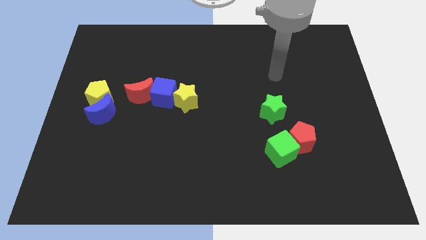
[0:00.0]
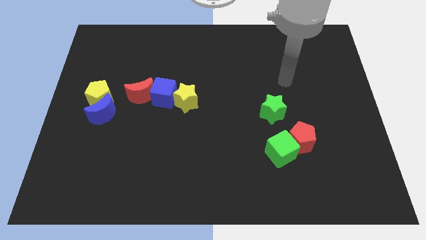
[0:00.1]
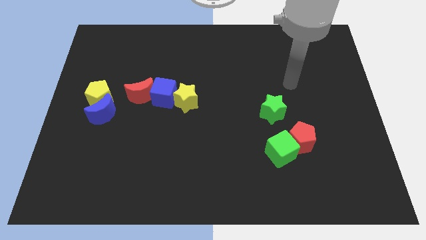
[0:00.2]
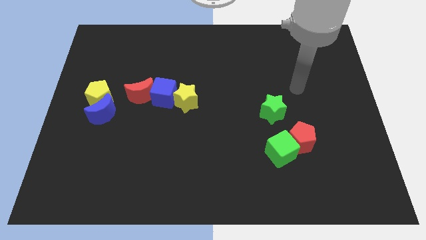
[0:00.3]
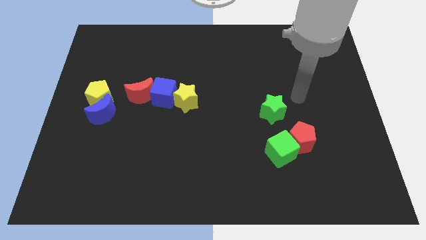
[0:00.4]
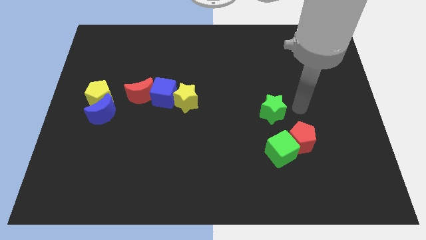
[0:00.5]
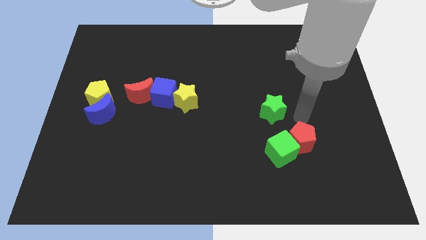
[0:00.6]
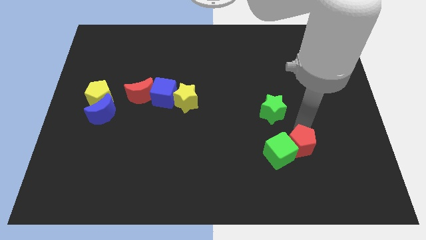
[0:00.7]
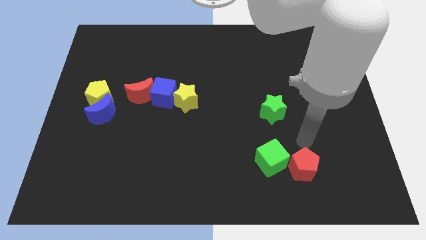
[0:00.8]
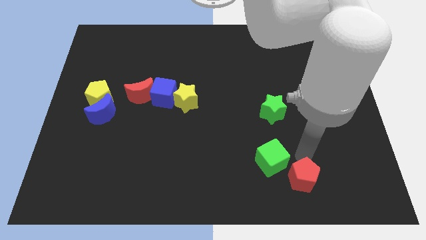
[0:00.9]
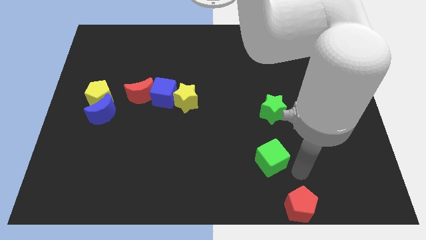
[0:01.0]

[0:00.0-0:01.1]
move the green cube away from the red pentagon

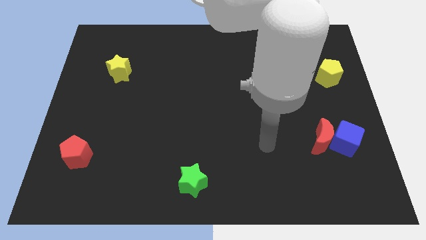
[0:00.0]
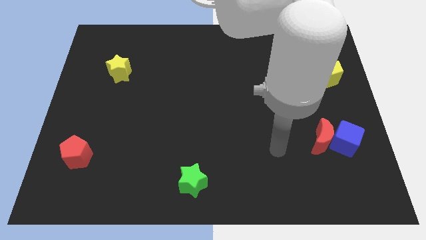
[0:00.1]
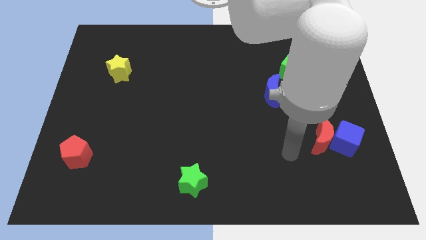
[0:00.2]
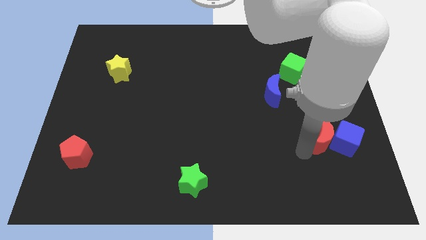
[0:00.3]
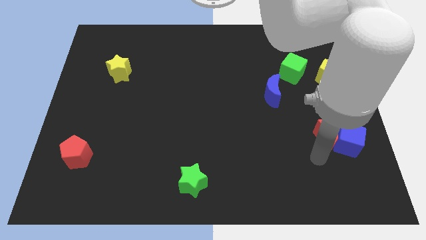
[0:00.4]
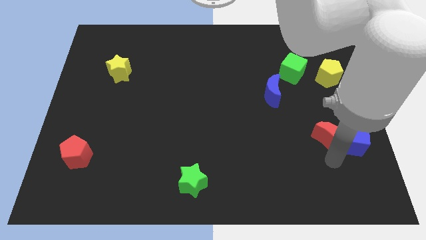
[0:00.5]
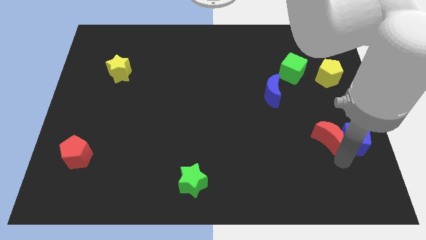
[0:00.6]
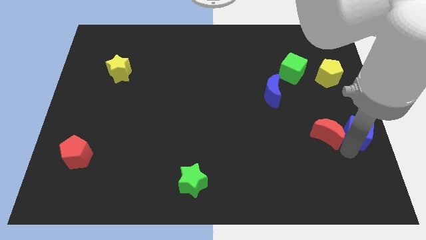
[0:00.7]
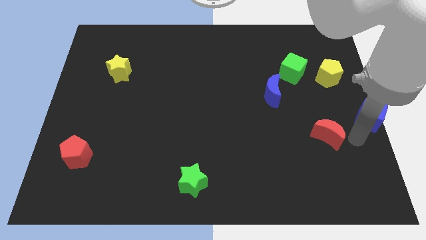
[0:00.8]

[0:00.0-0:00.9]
pull the red moon apart from the blue cube

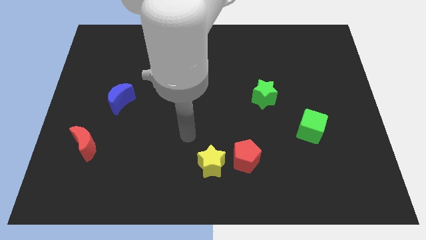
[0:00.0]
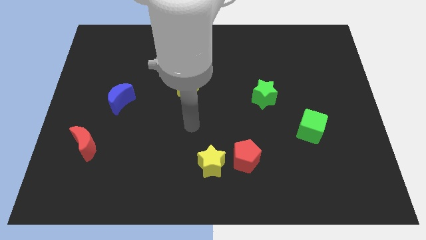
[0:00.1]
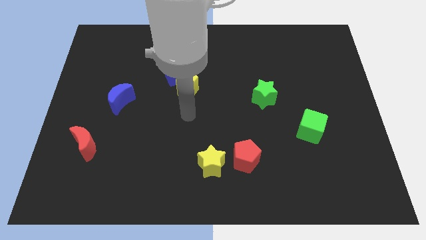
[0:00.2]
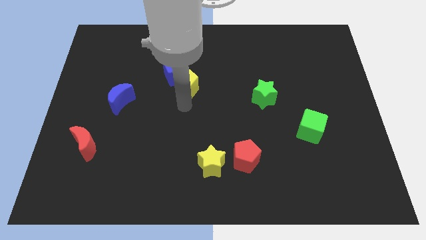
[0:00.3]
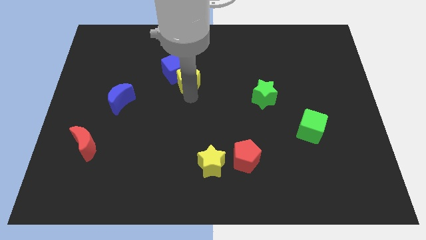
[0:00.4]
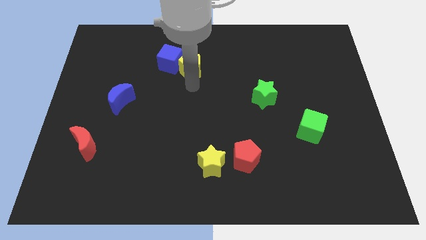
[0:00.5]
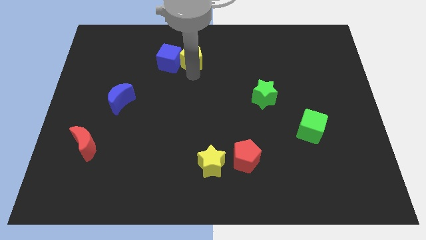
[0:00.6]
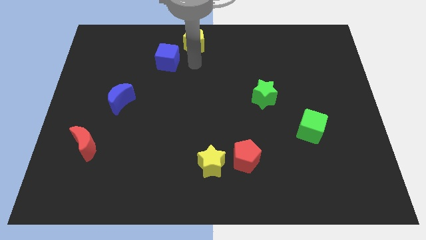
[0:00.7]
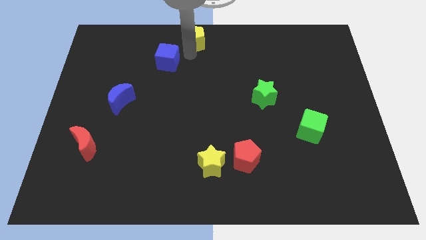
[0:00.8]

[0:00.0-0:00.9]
move the blue cube away from the yellow pentagon

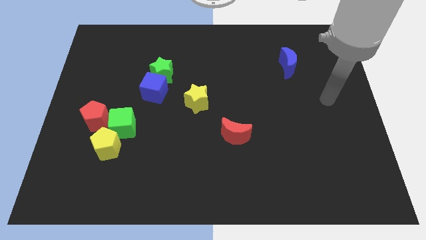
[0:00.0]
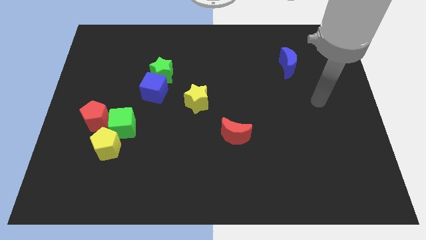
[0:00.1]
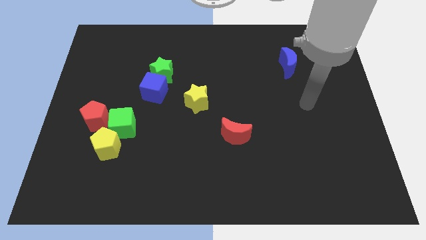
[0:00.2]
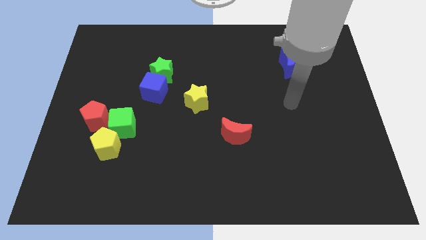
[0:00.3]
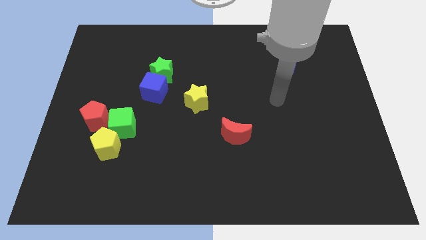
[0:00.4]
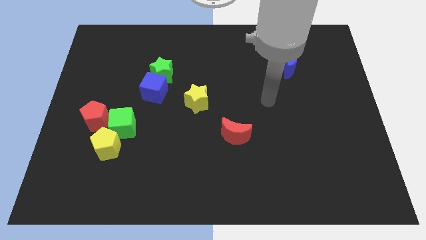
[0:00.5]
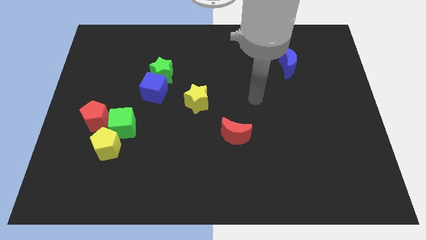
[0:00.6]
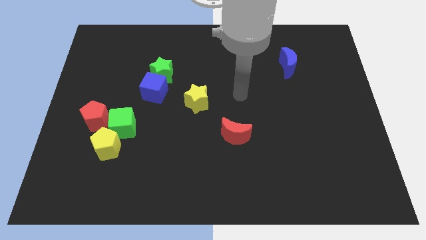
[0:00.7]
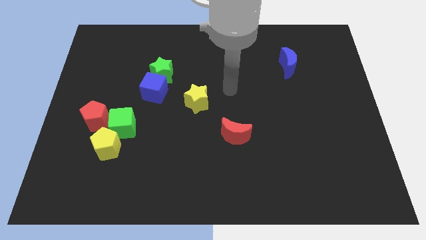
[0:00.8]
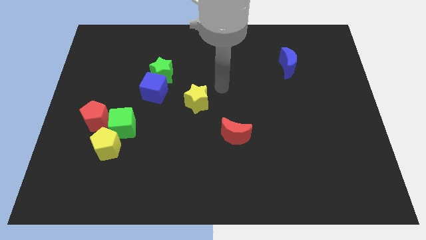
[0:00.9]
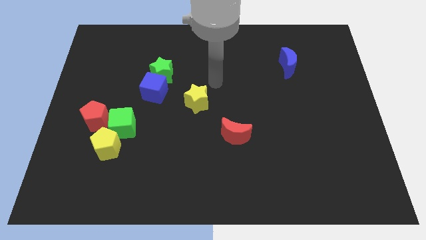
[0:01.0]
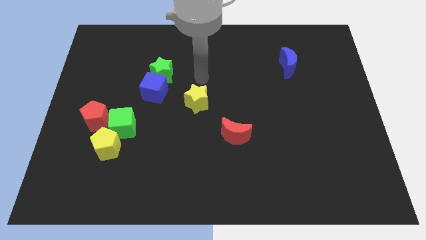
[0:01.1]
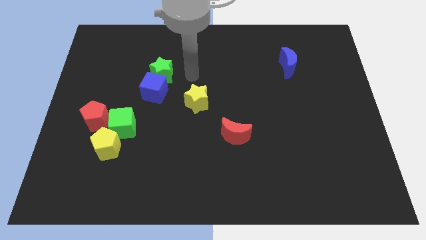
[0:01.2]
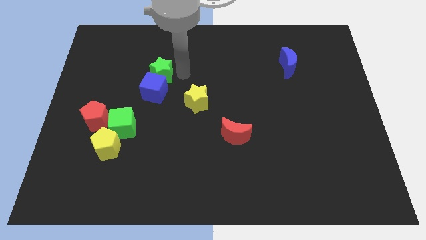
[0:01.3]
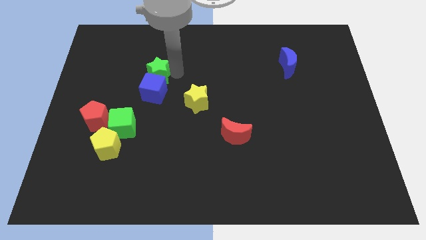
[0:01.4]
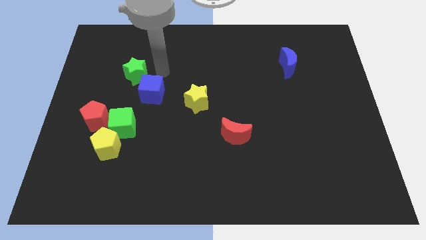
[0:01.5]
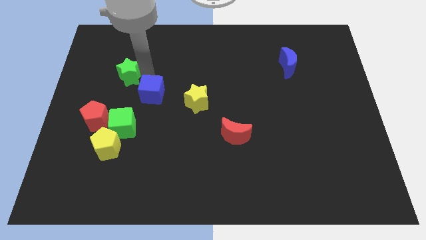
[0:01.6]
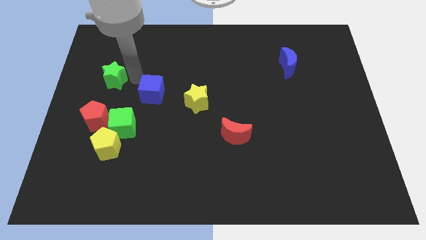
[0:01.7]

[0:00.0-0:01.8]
move the blue cube away from the green star

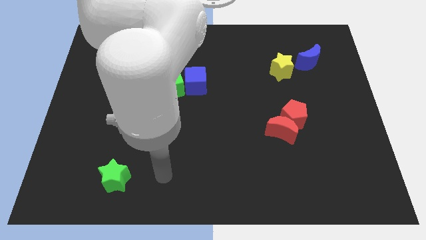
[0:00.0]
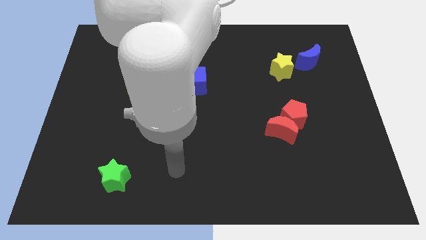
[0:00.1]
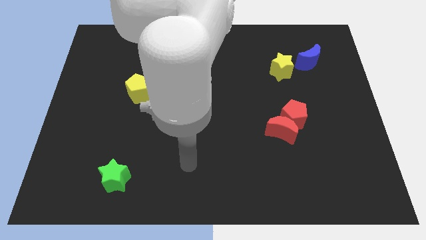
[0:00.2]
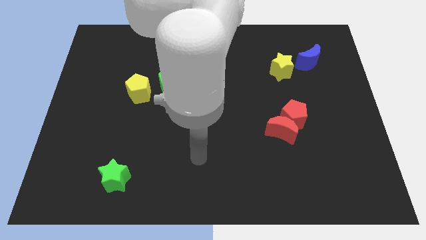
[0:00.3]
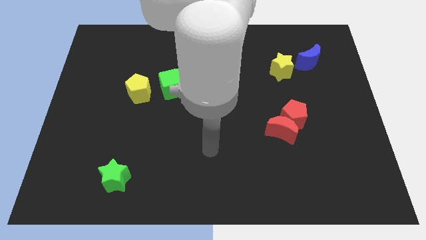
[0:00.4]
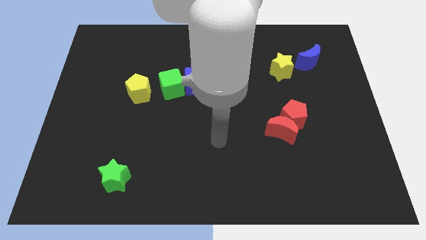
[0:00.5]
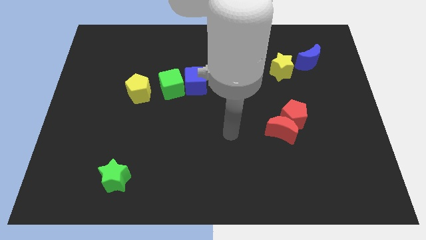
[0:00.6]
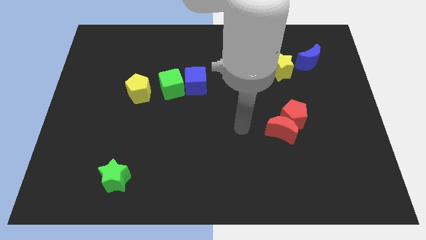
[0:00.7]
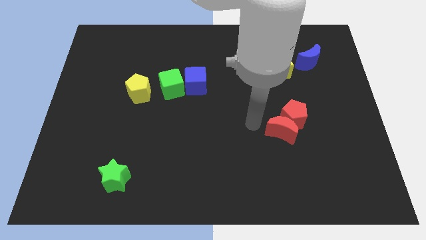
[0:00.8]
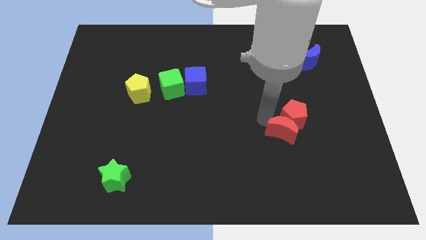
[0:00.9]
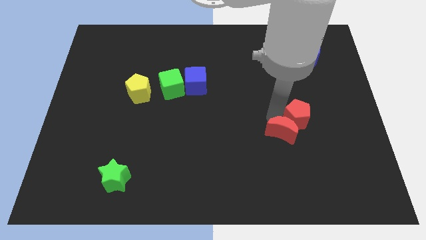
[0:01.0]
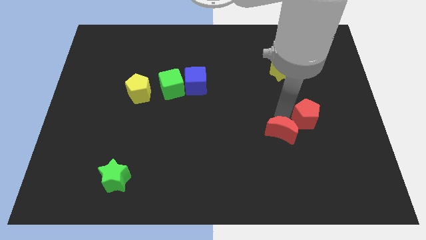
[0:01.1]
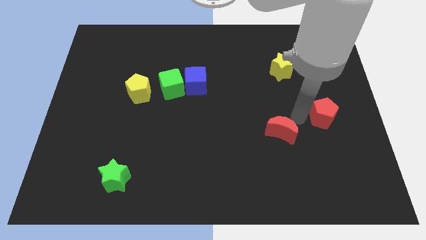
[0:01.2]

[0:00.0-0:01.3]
move the red moon away from the red pentagon

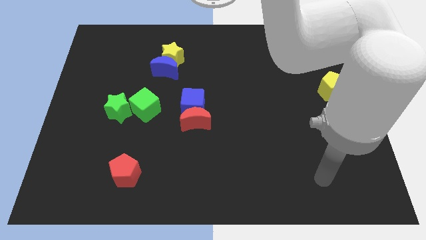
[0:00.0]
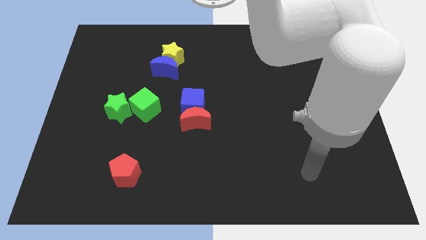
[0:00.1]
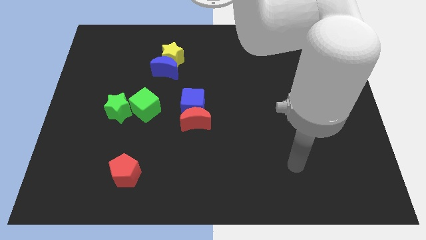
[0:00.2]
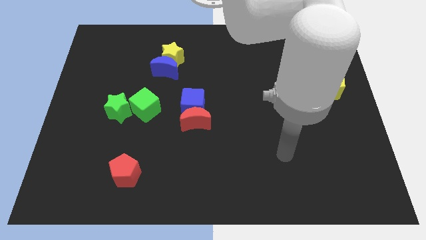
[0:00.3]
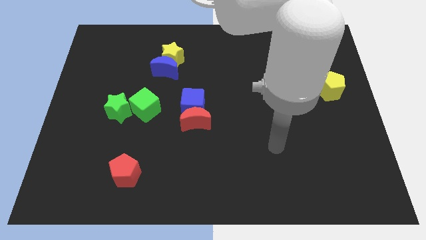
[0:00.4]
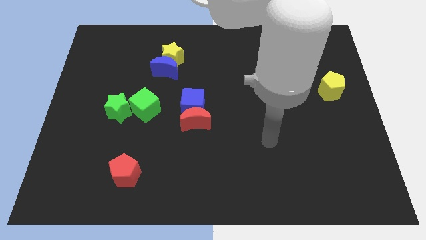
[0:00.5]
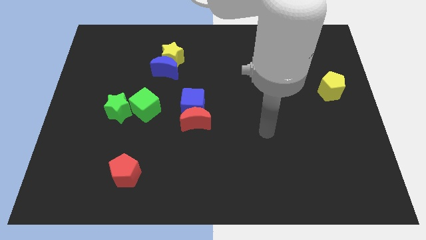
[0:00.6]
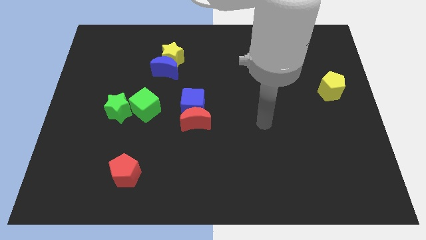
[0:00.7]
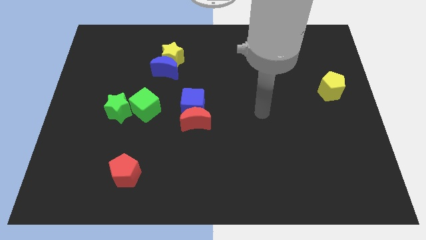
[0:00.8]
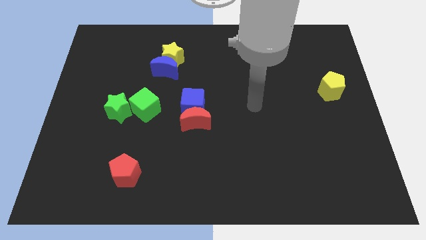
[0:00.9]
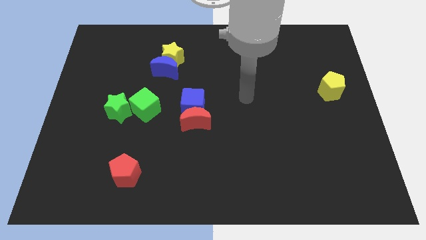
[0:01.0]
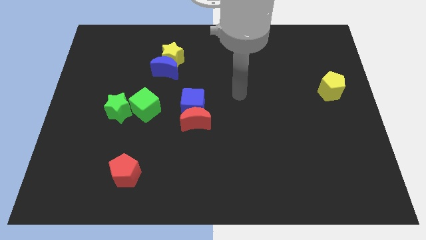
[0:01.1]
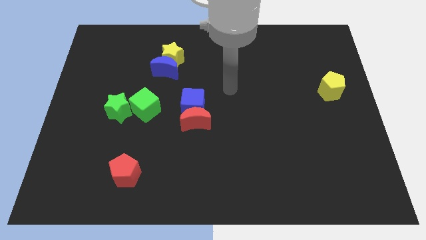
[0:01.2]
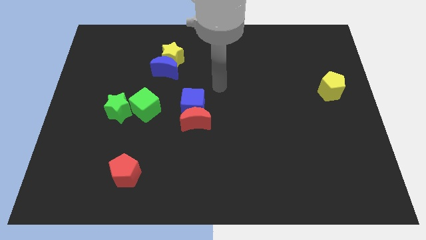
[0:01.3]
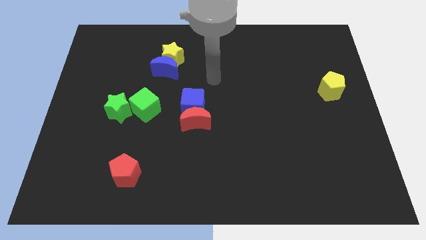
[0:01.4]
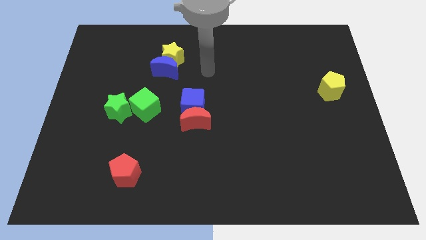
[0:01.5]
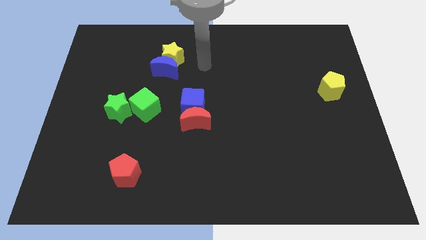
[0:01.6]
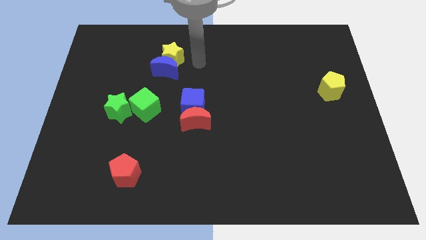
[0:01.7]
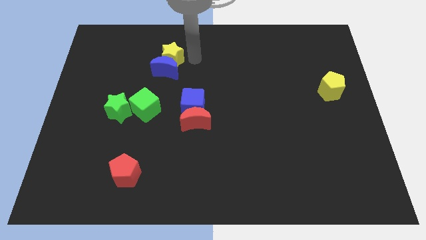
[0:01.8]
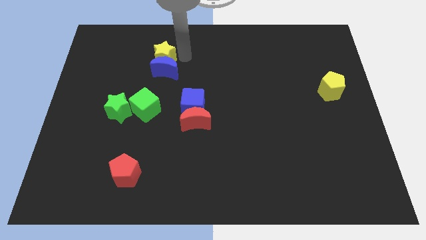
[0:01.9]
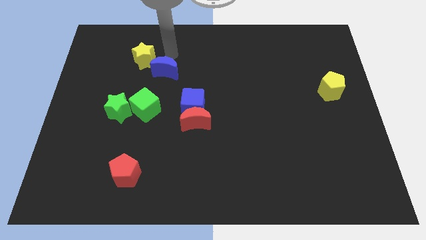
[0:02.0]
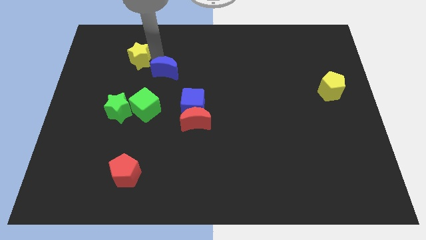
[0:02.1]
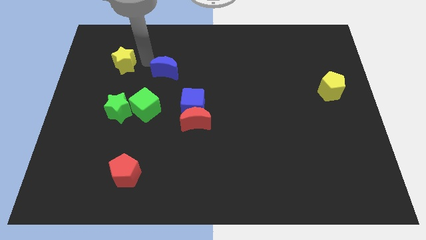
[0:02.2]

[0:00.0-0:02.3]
separate the blue moon from the yellow star

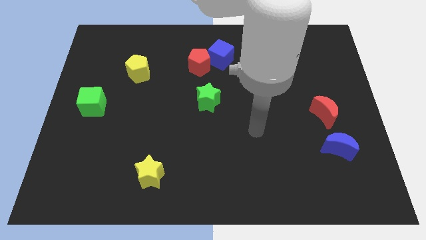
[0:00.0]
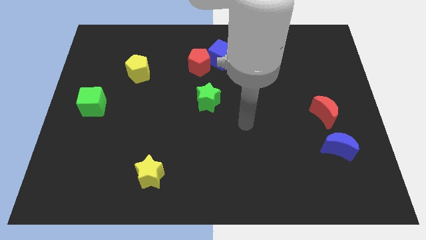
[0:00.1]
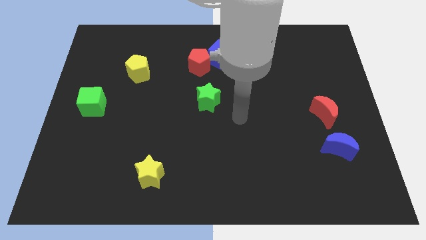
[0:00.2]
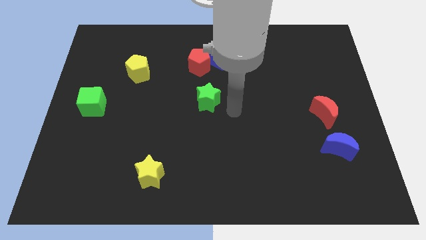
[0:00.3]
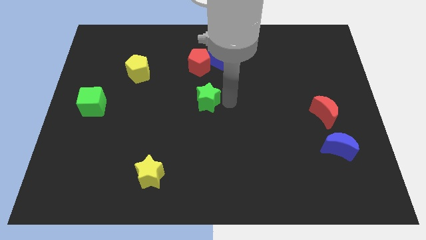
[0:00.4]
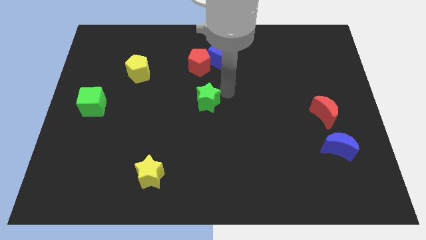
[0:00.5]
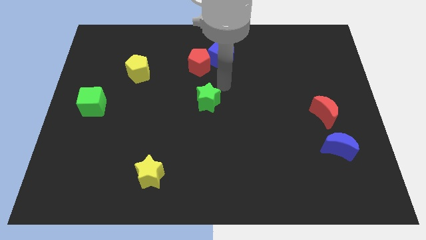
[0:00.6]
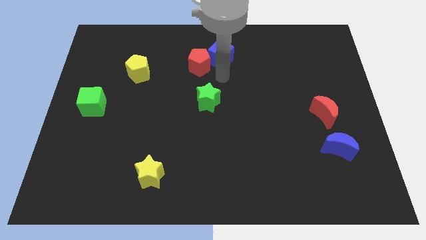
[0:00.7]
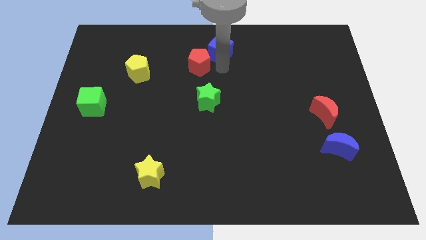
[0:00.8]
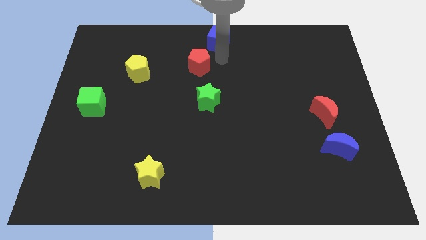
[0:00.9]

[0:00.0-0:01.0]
separate the red pentagon from the blue cube
